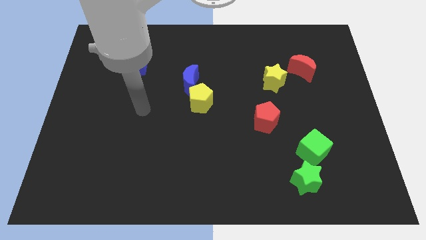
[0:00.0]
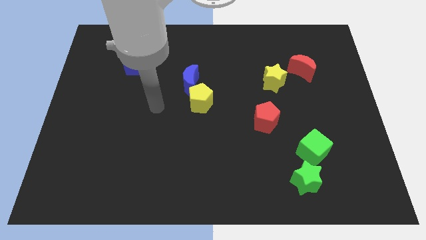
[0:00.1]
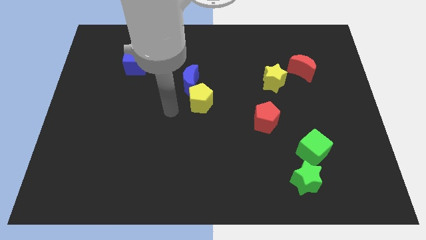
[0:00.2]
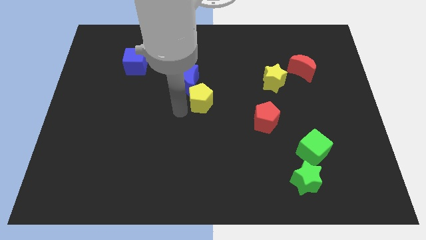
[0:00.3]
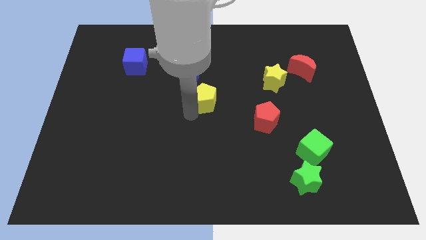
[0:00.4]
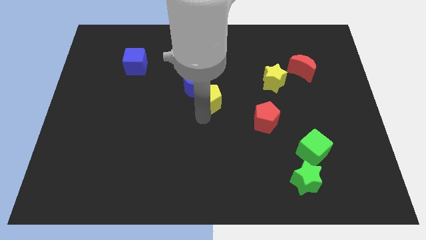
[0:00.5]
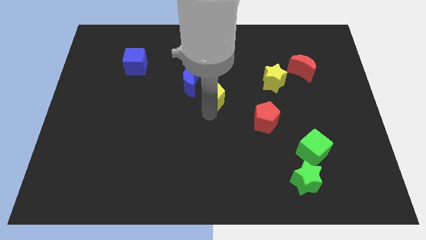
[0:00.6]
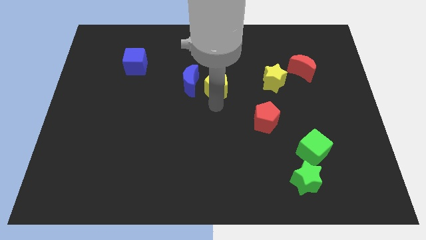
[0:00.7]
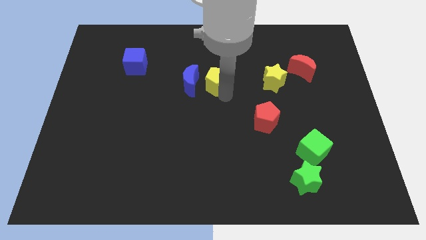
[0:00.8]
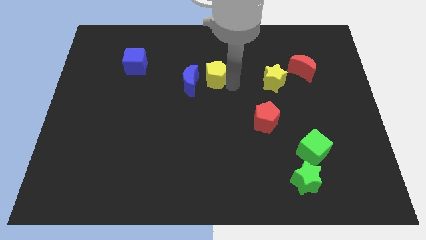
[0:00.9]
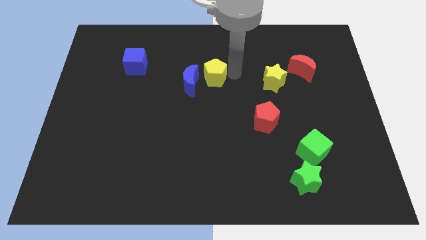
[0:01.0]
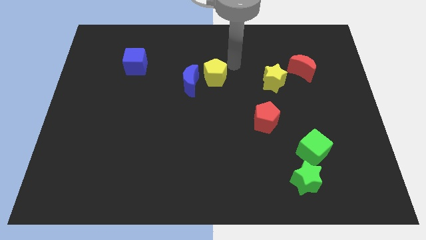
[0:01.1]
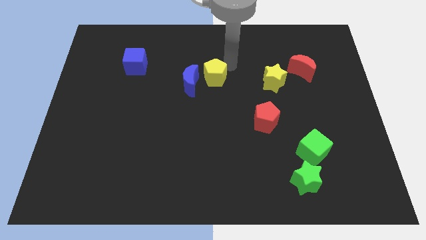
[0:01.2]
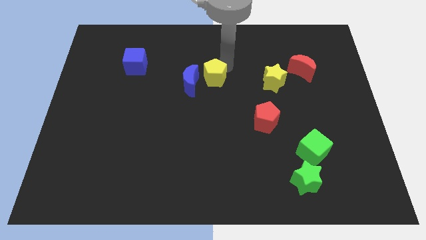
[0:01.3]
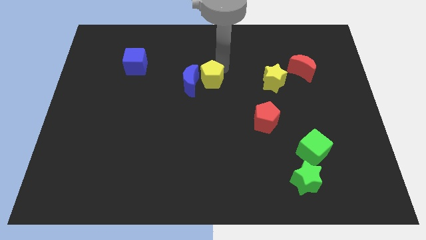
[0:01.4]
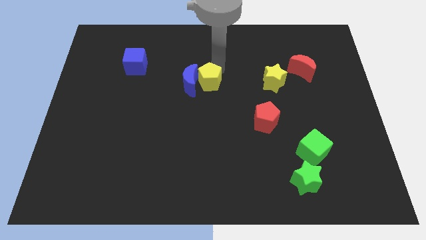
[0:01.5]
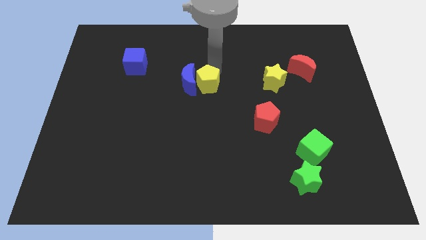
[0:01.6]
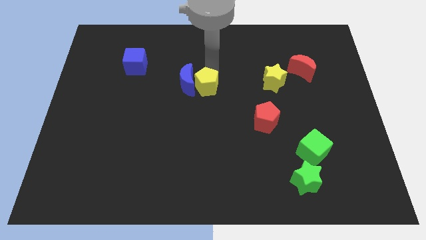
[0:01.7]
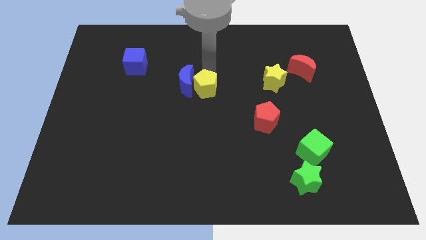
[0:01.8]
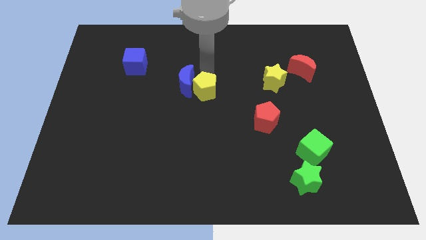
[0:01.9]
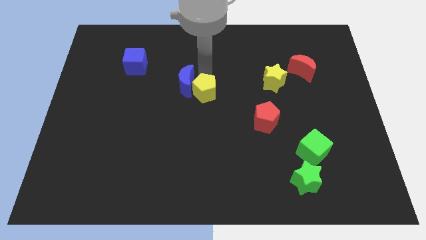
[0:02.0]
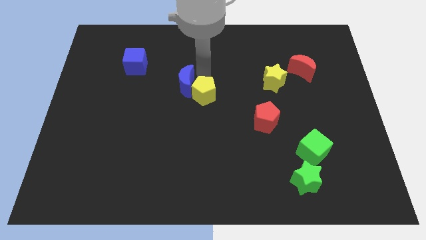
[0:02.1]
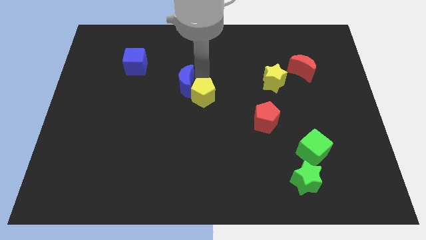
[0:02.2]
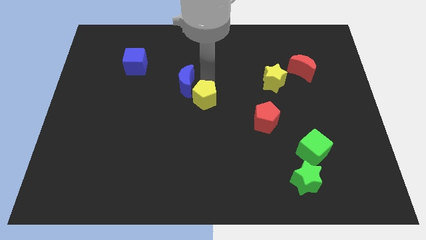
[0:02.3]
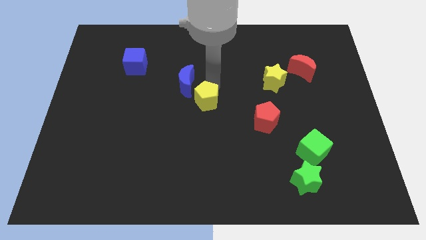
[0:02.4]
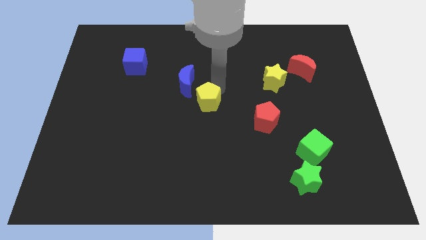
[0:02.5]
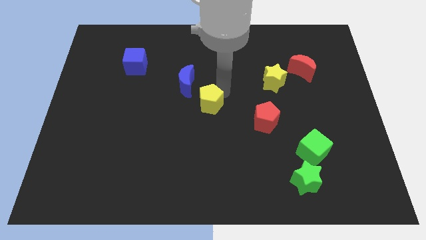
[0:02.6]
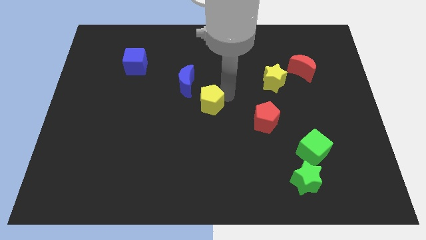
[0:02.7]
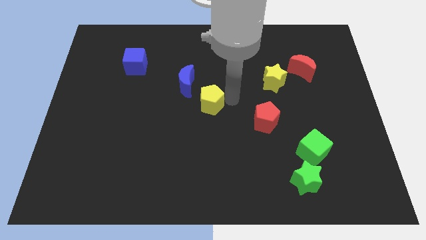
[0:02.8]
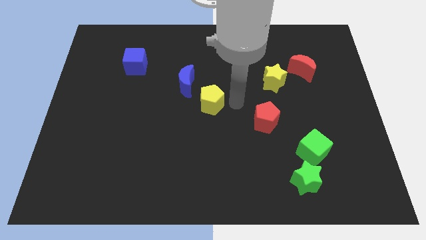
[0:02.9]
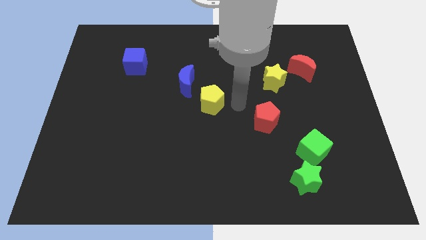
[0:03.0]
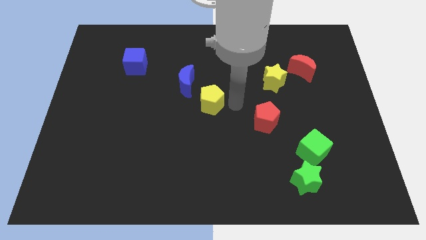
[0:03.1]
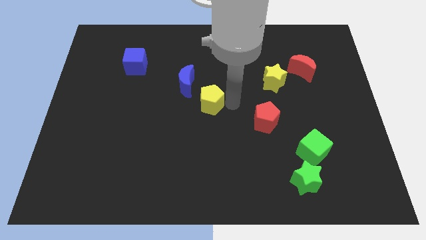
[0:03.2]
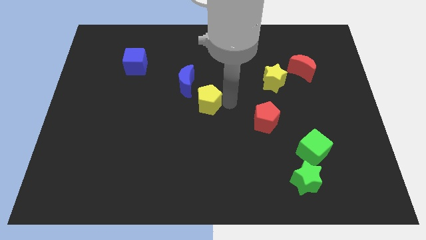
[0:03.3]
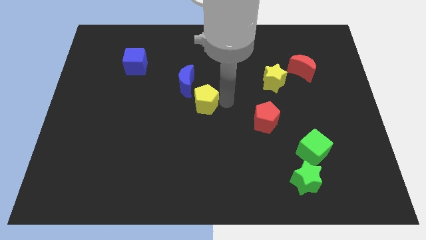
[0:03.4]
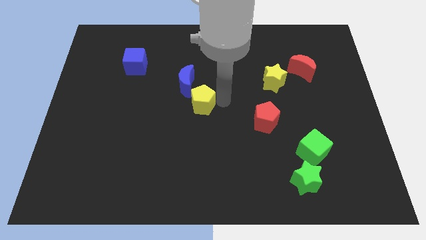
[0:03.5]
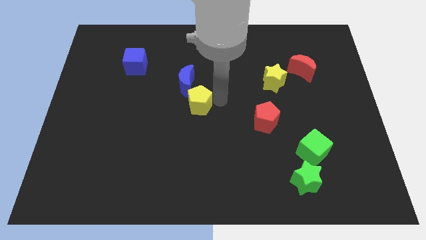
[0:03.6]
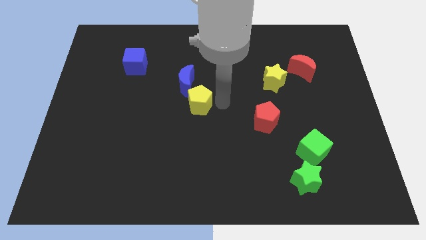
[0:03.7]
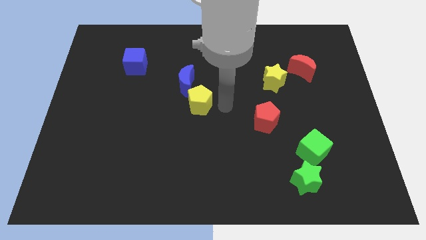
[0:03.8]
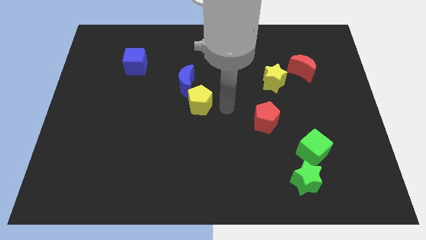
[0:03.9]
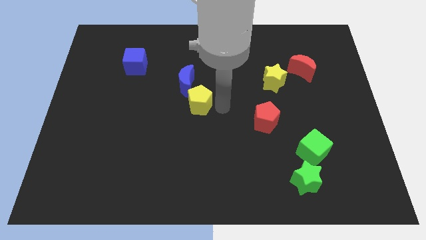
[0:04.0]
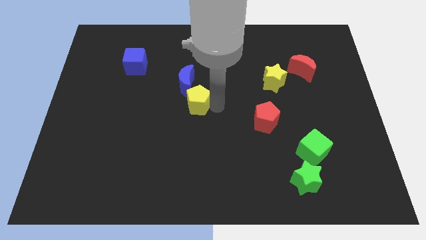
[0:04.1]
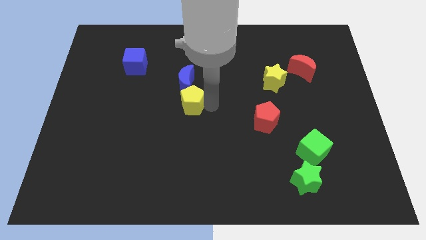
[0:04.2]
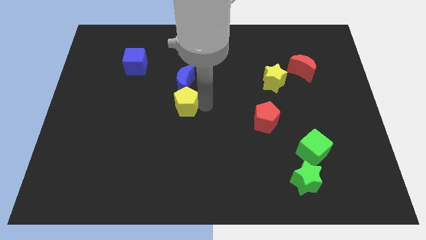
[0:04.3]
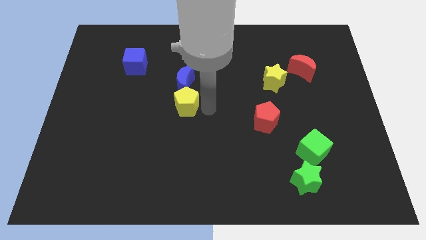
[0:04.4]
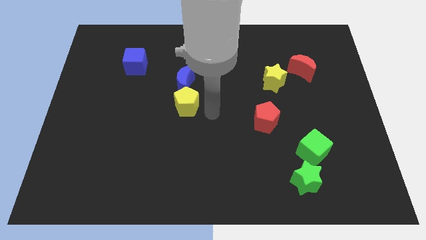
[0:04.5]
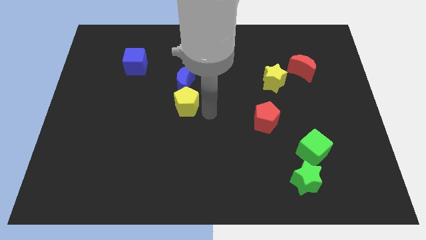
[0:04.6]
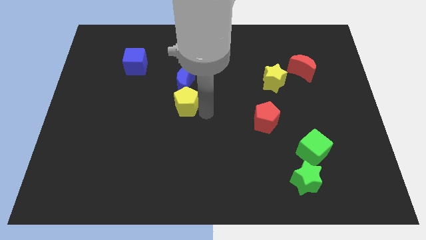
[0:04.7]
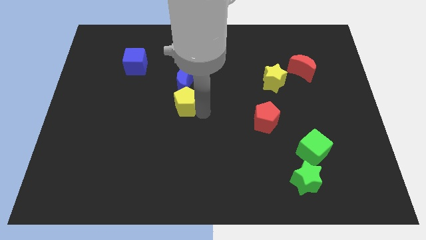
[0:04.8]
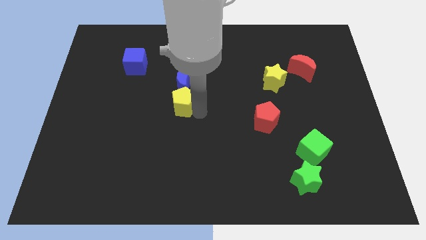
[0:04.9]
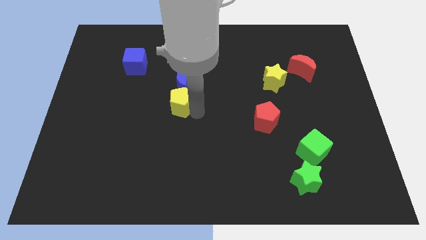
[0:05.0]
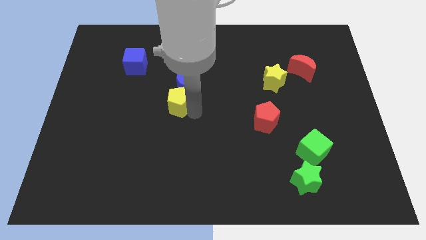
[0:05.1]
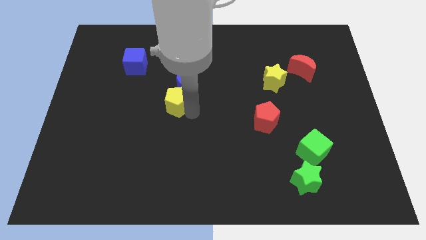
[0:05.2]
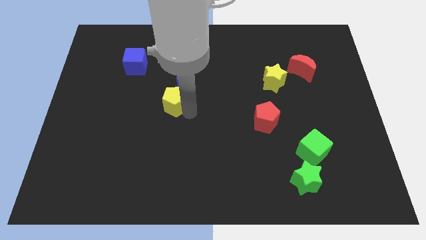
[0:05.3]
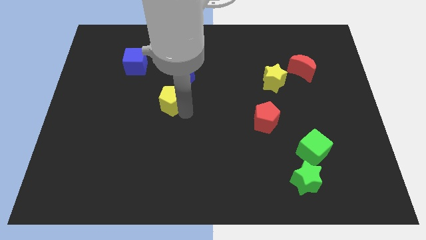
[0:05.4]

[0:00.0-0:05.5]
slightly slide the yellow pentagon to the left

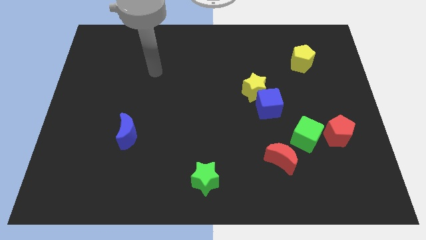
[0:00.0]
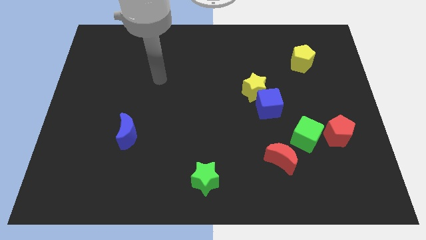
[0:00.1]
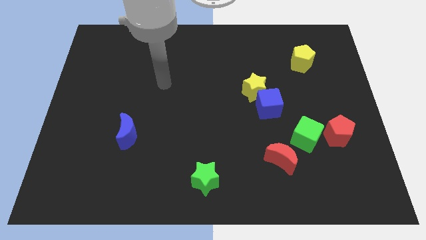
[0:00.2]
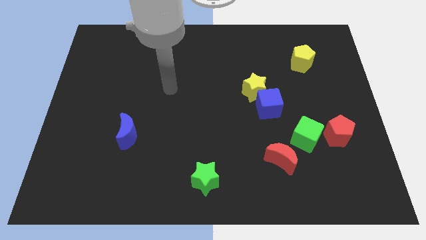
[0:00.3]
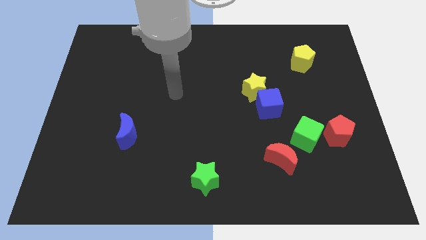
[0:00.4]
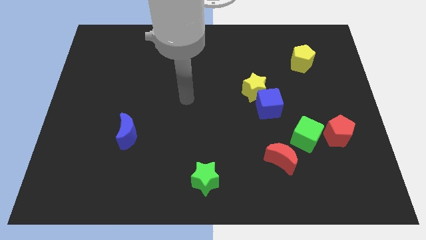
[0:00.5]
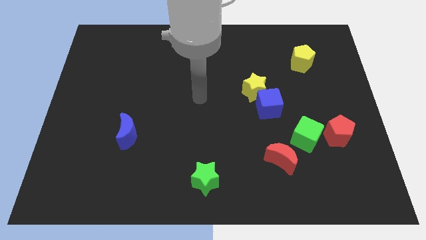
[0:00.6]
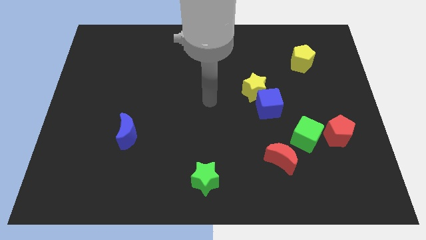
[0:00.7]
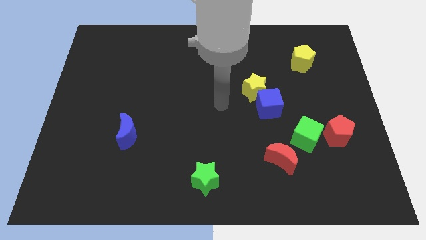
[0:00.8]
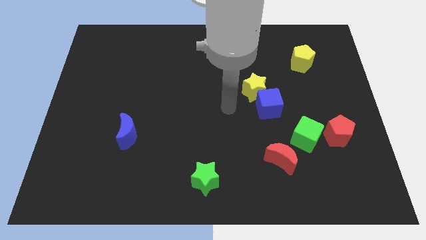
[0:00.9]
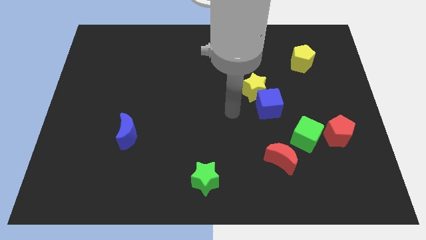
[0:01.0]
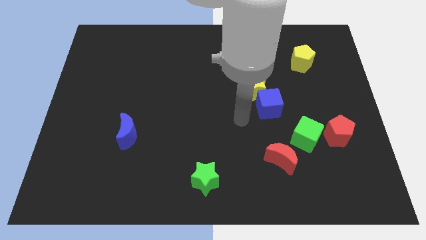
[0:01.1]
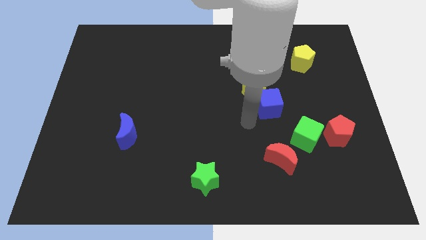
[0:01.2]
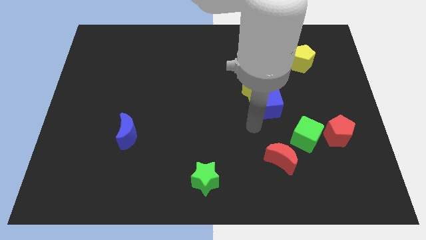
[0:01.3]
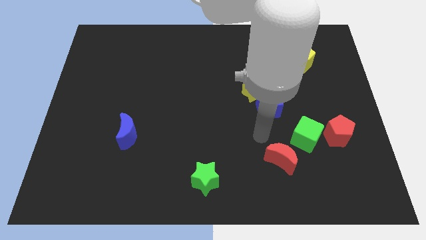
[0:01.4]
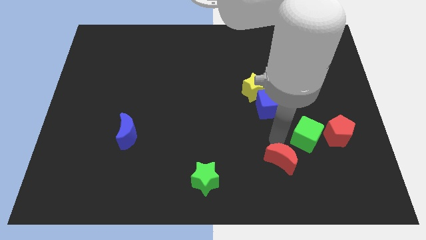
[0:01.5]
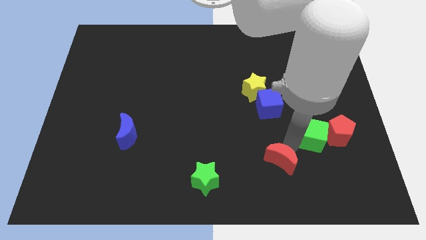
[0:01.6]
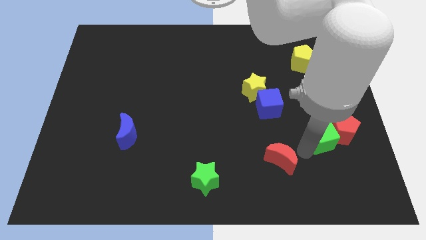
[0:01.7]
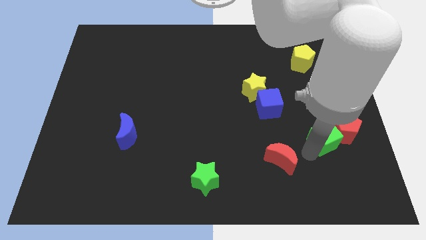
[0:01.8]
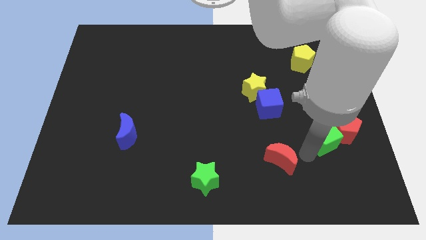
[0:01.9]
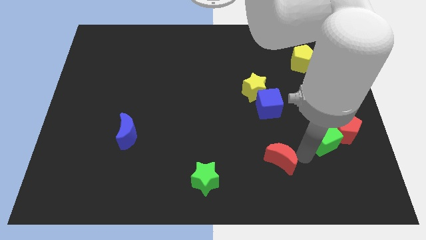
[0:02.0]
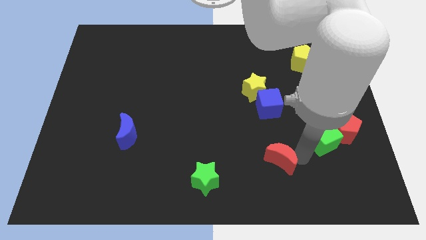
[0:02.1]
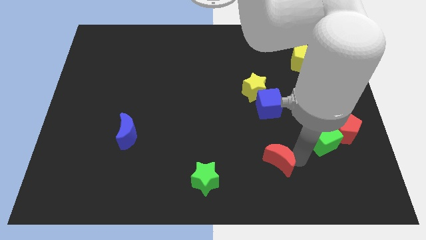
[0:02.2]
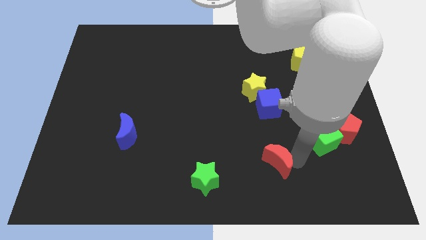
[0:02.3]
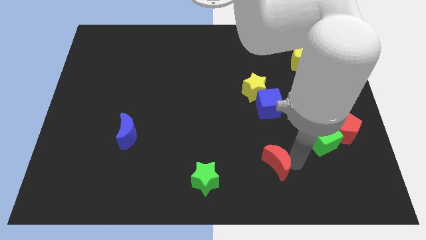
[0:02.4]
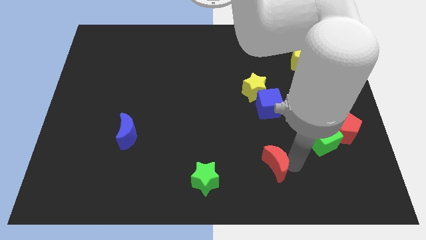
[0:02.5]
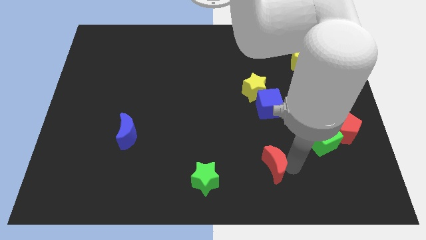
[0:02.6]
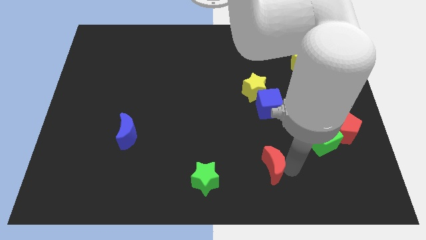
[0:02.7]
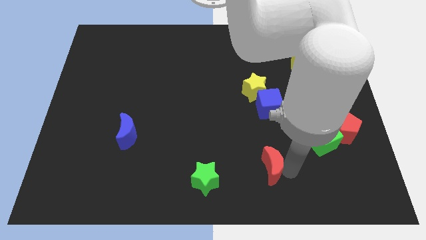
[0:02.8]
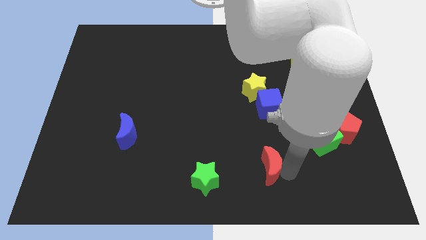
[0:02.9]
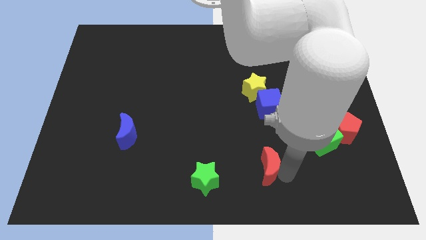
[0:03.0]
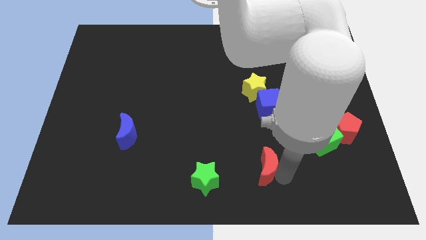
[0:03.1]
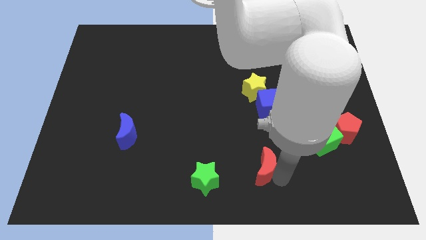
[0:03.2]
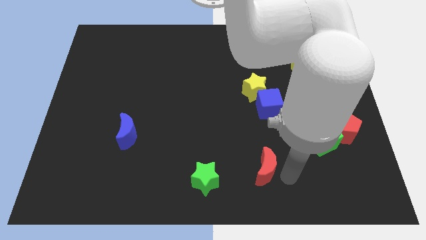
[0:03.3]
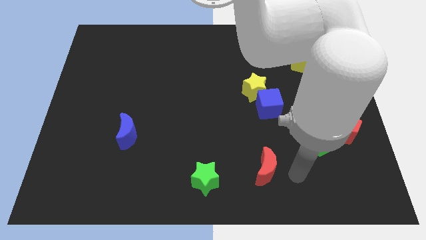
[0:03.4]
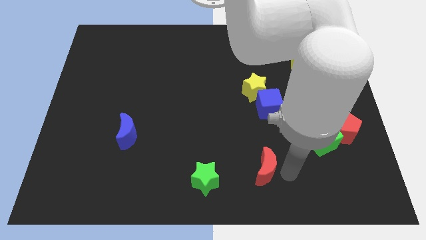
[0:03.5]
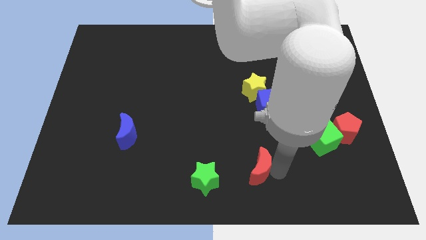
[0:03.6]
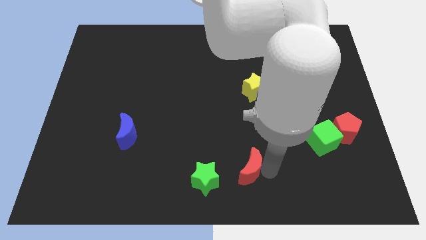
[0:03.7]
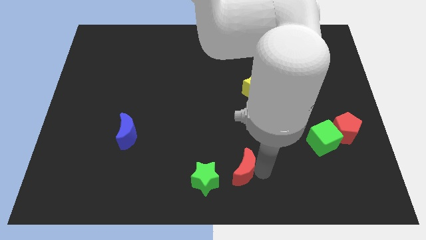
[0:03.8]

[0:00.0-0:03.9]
slightly move the red moon to the left
